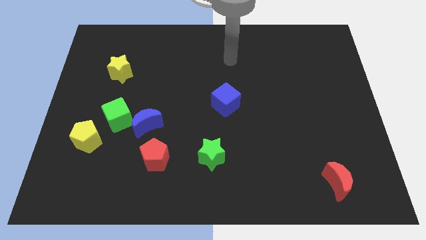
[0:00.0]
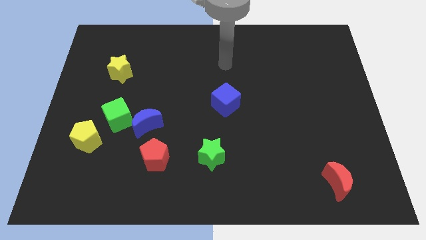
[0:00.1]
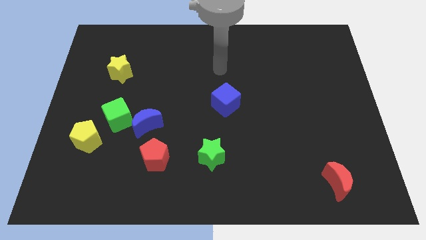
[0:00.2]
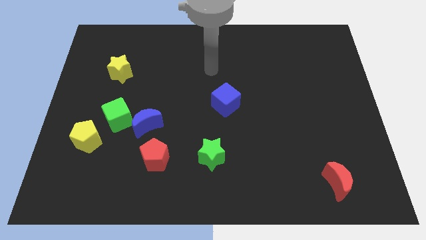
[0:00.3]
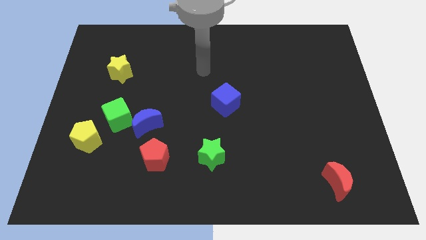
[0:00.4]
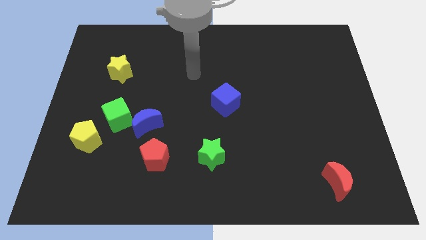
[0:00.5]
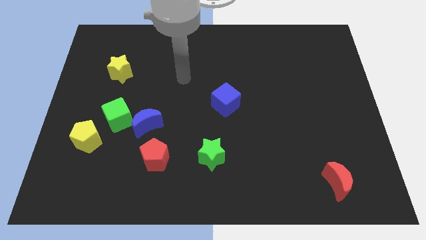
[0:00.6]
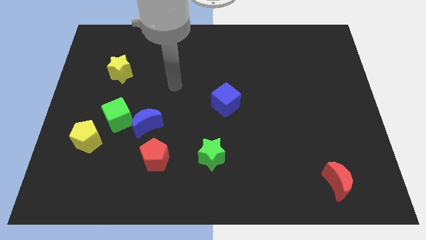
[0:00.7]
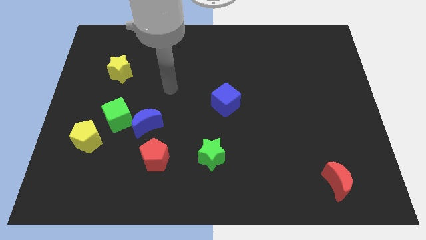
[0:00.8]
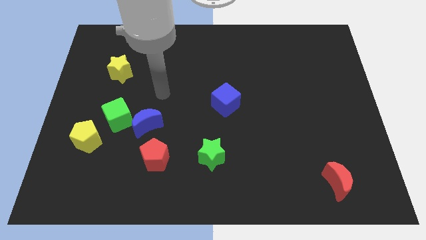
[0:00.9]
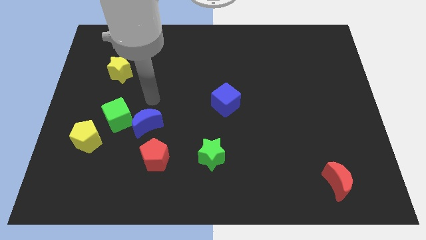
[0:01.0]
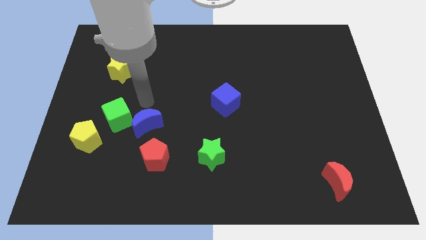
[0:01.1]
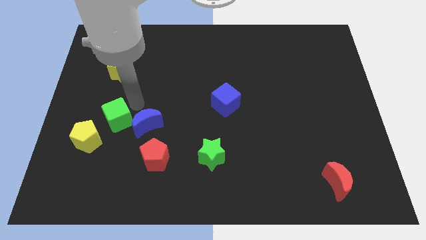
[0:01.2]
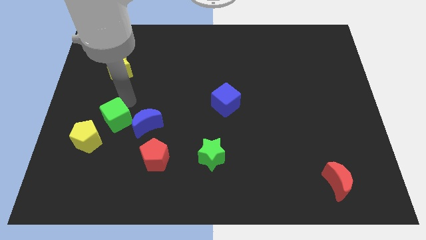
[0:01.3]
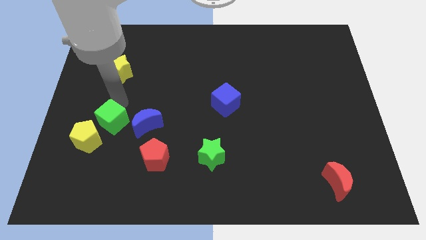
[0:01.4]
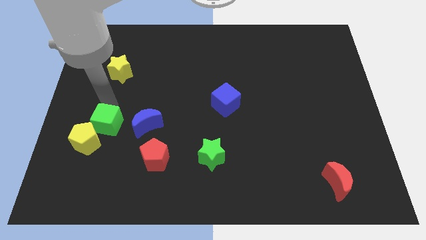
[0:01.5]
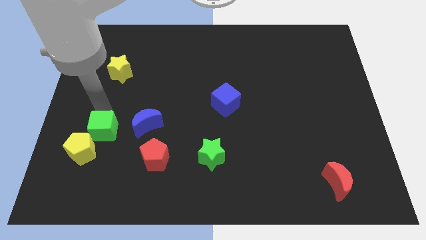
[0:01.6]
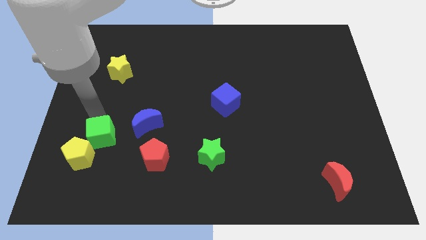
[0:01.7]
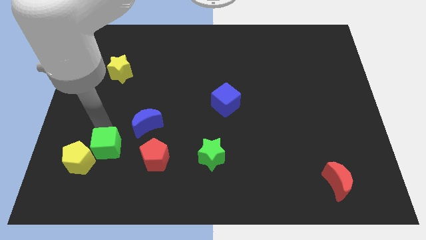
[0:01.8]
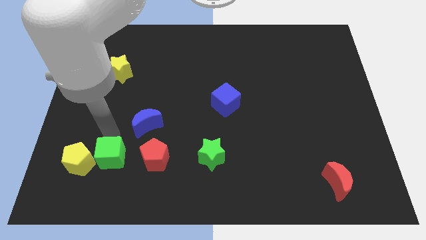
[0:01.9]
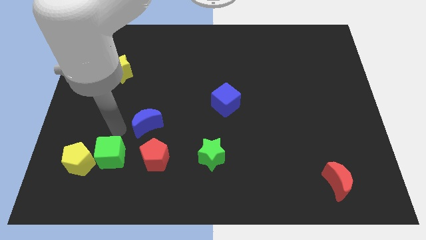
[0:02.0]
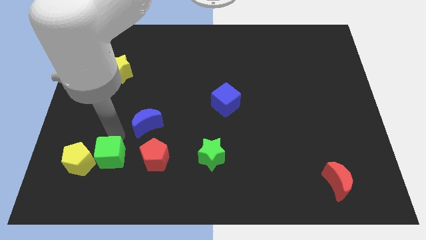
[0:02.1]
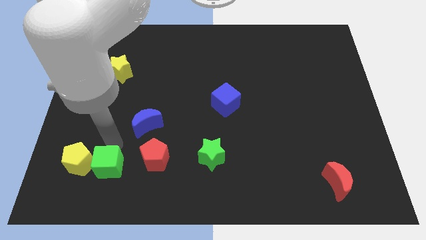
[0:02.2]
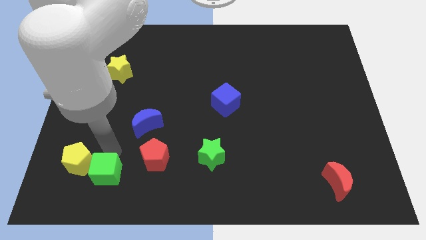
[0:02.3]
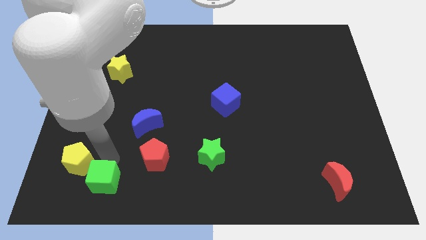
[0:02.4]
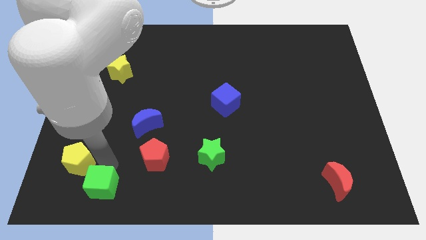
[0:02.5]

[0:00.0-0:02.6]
separate the green cube from the blue moon and yellow pentagon

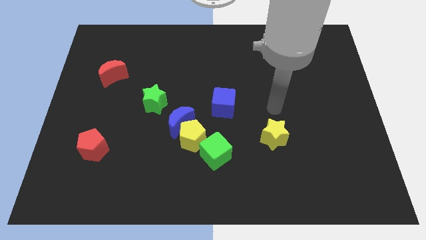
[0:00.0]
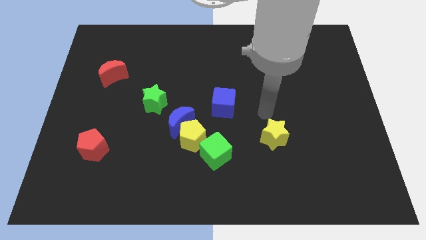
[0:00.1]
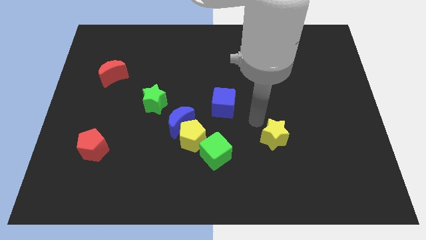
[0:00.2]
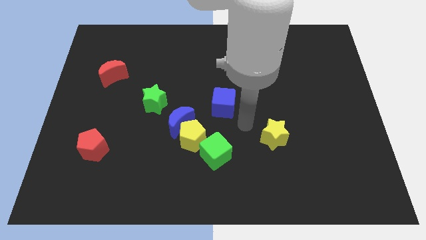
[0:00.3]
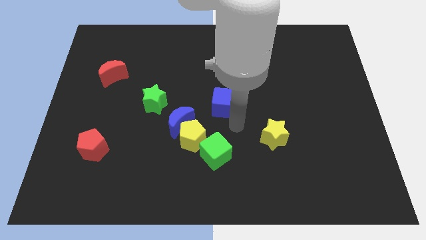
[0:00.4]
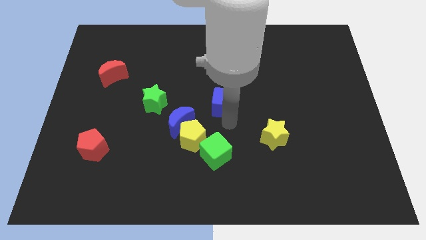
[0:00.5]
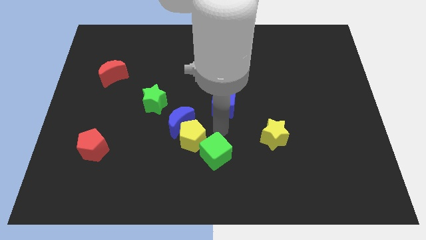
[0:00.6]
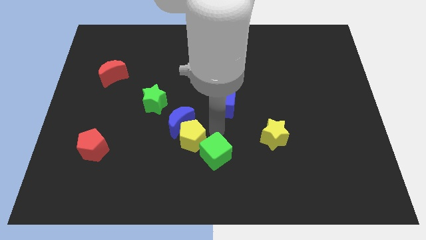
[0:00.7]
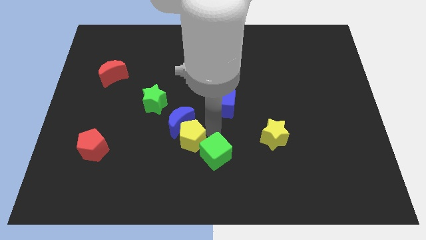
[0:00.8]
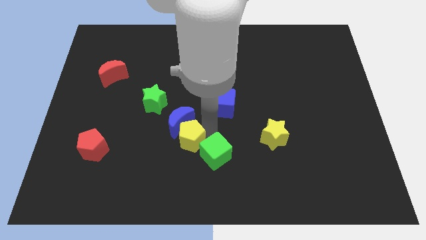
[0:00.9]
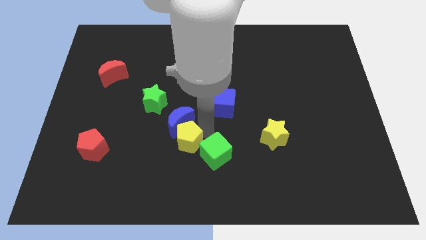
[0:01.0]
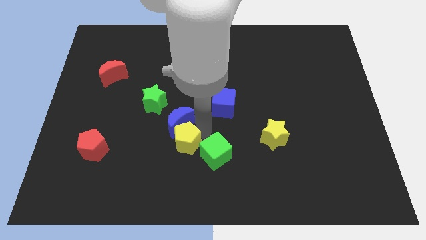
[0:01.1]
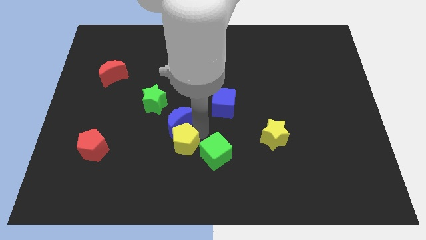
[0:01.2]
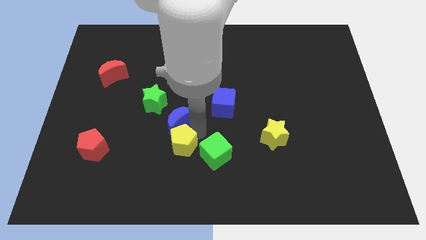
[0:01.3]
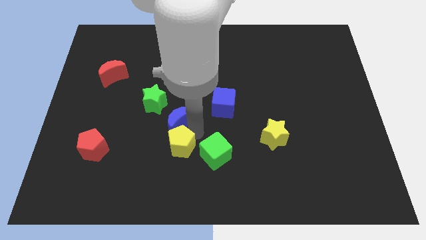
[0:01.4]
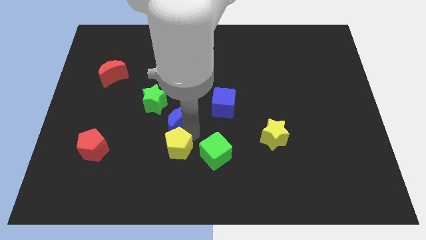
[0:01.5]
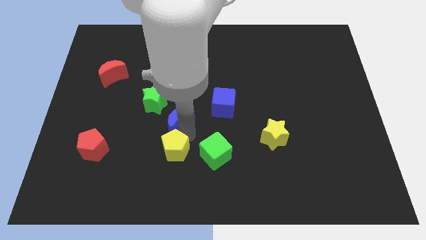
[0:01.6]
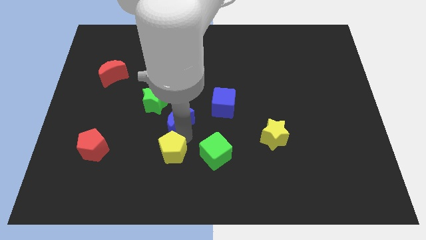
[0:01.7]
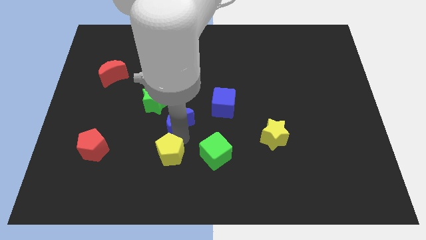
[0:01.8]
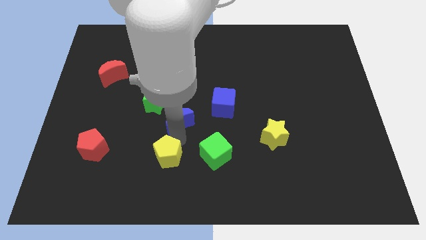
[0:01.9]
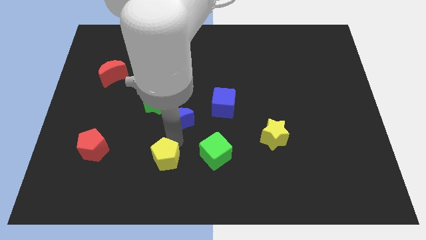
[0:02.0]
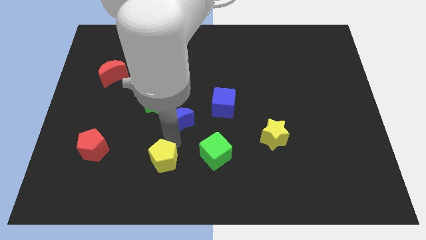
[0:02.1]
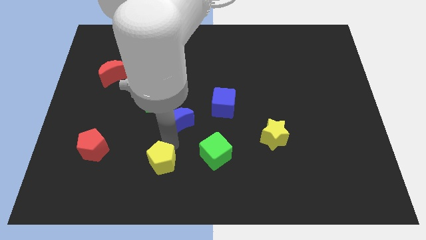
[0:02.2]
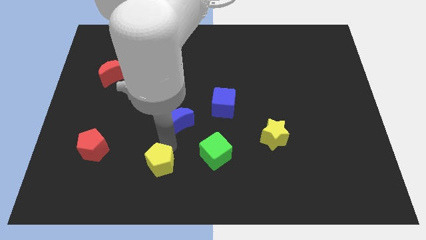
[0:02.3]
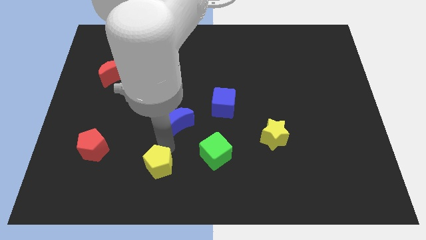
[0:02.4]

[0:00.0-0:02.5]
move the yellow pentagon away from the blue moon and green cube

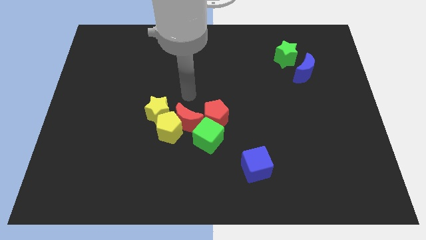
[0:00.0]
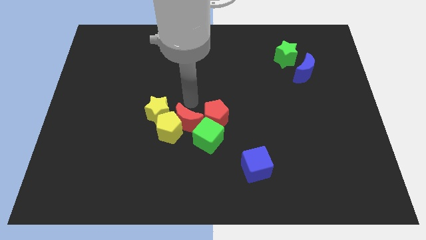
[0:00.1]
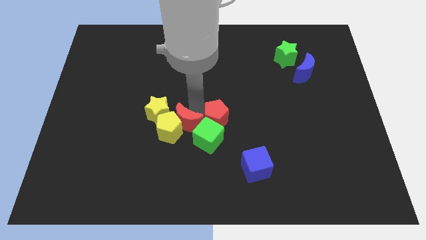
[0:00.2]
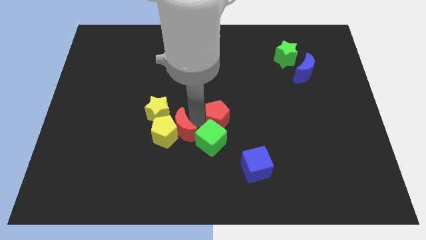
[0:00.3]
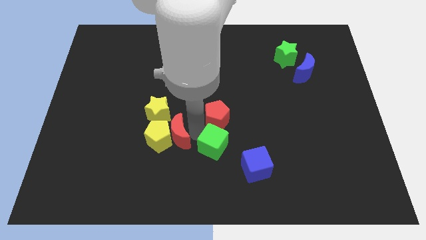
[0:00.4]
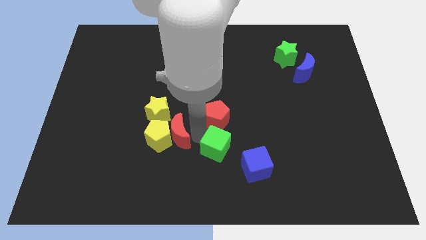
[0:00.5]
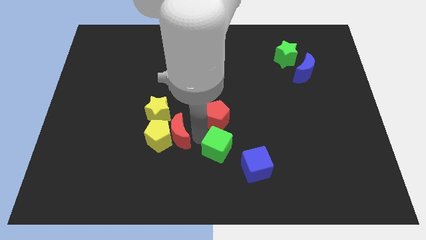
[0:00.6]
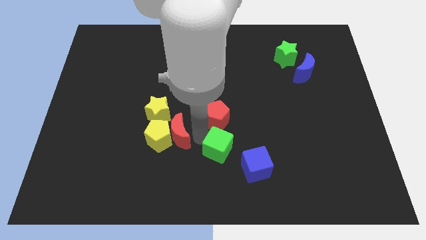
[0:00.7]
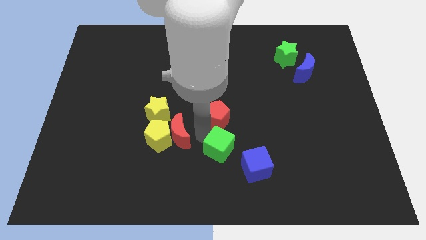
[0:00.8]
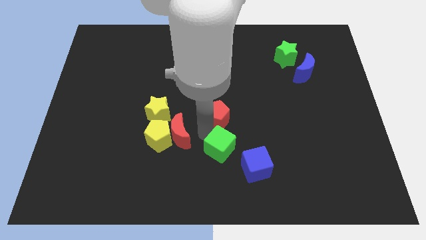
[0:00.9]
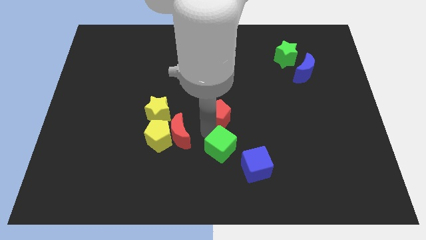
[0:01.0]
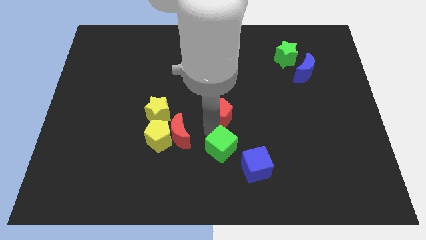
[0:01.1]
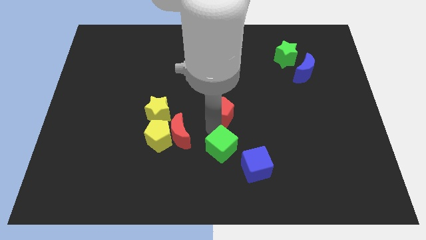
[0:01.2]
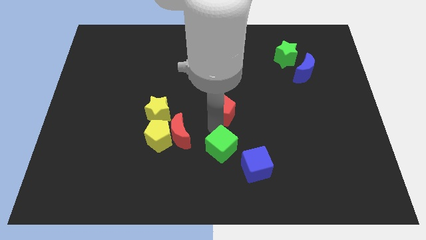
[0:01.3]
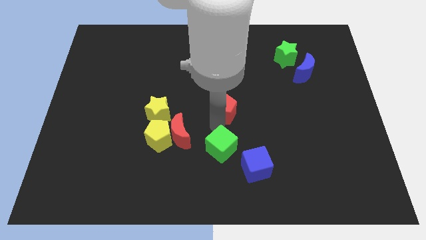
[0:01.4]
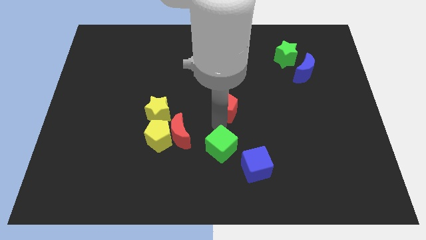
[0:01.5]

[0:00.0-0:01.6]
move the red pentagon away from the green cube and red moon

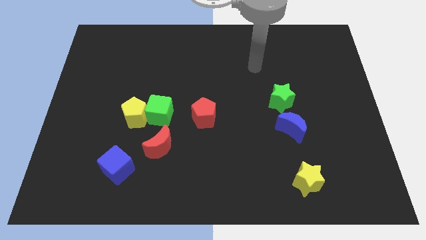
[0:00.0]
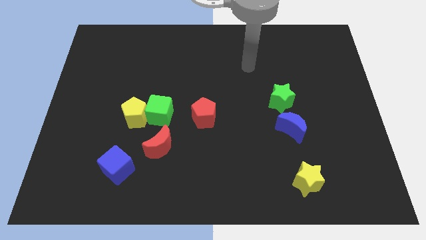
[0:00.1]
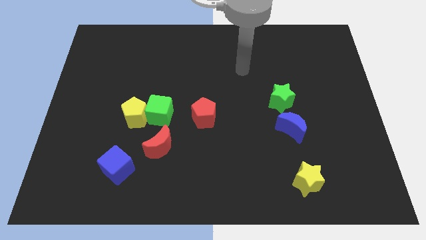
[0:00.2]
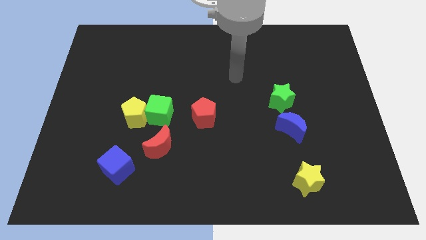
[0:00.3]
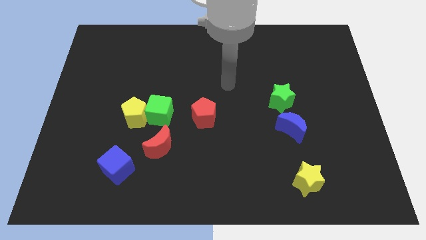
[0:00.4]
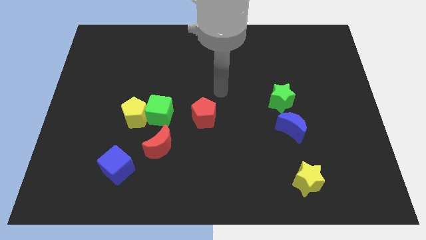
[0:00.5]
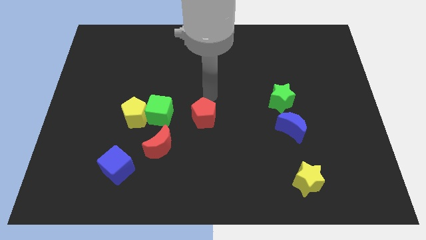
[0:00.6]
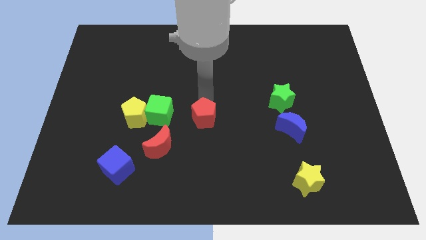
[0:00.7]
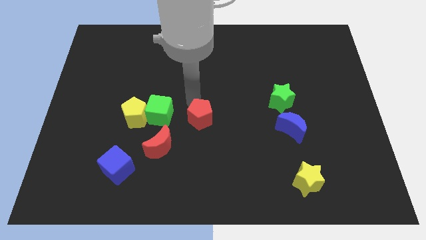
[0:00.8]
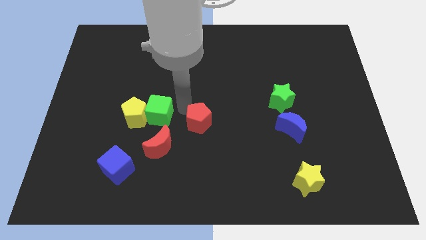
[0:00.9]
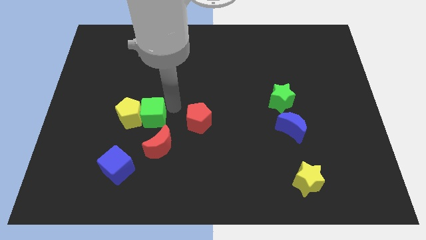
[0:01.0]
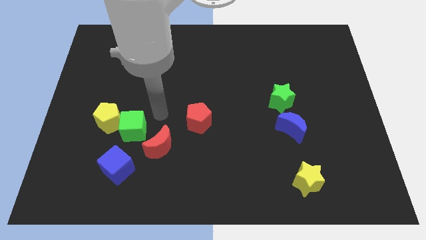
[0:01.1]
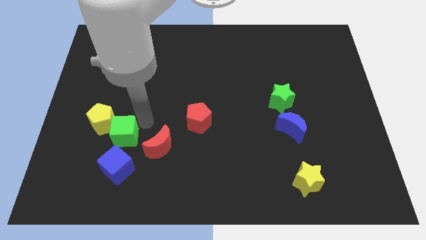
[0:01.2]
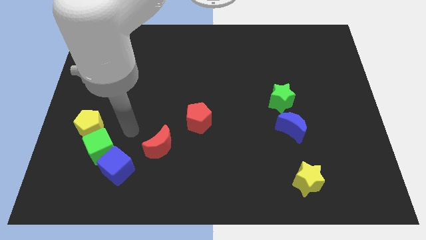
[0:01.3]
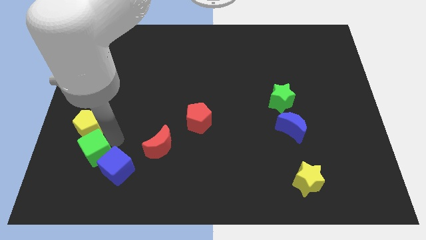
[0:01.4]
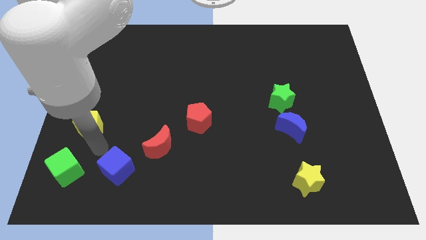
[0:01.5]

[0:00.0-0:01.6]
pull the yellow pentagon apart from the green cube

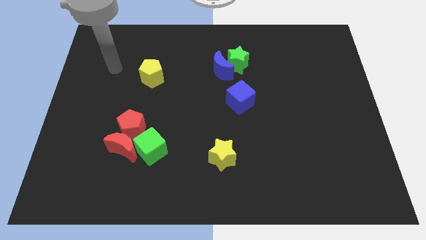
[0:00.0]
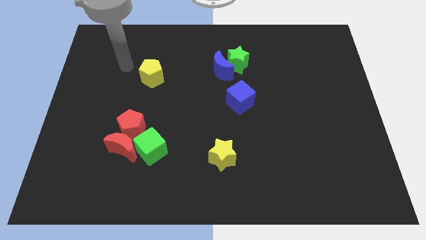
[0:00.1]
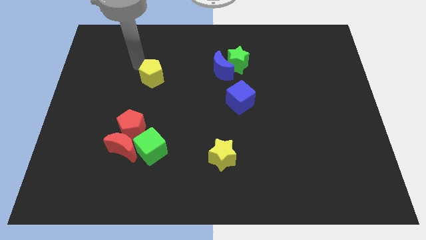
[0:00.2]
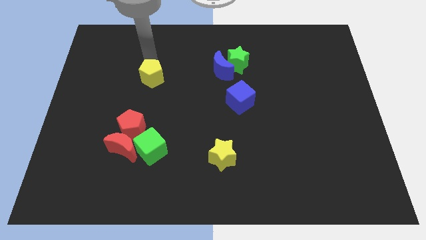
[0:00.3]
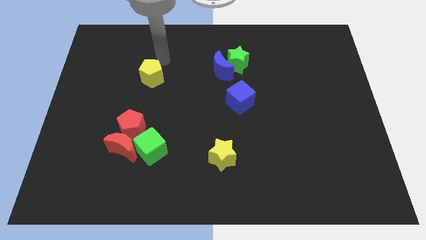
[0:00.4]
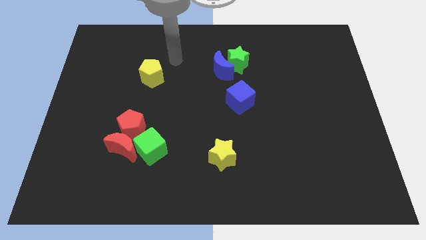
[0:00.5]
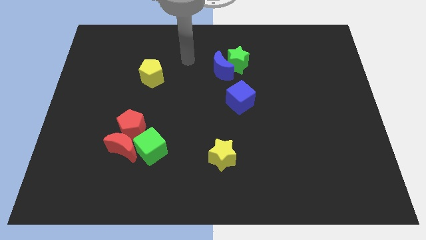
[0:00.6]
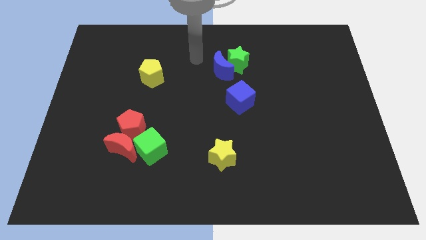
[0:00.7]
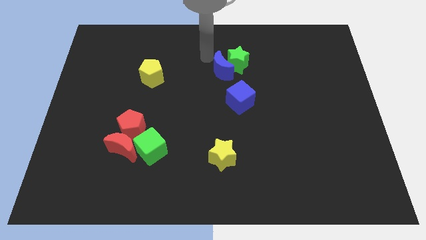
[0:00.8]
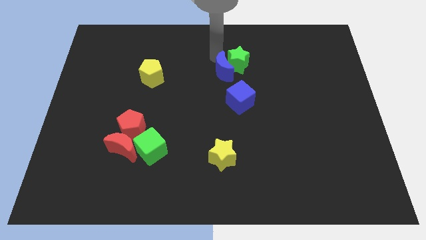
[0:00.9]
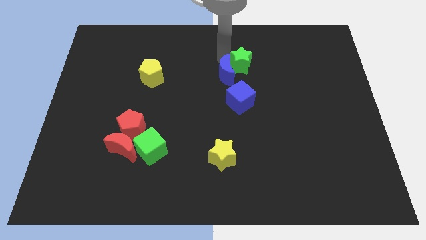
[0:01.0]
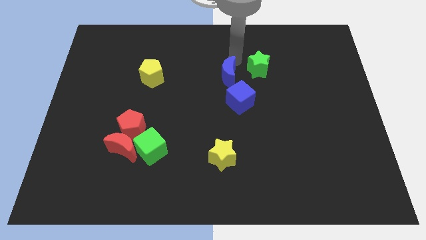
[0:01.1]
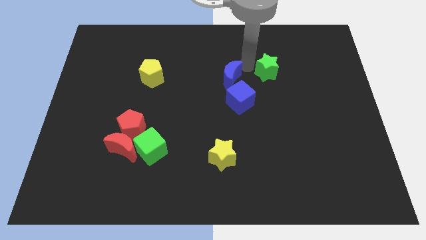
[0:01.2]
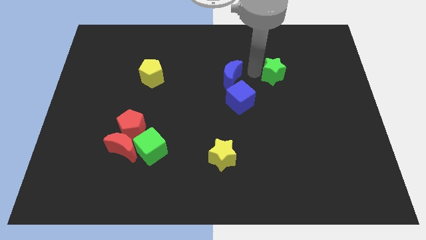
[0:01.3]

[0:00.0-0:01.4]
pull the blue moon apart from the green star
